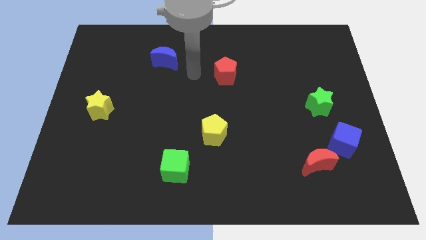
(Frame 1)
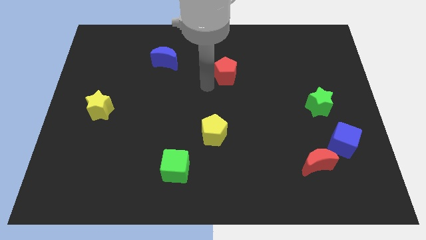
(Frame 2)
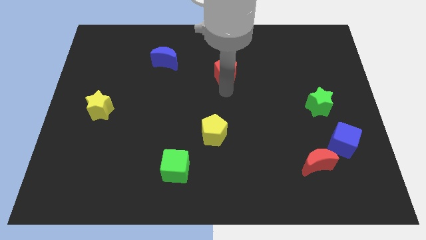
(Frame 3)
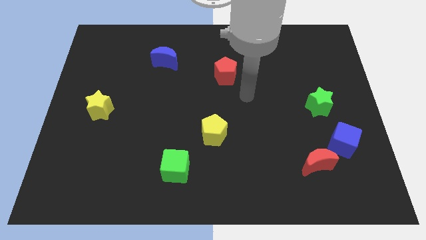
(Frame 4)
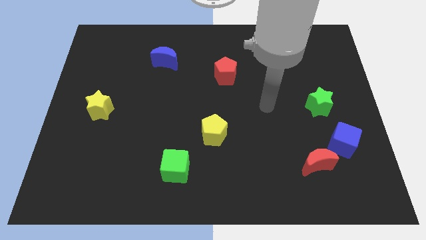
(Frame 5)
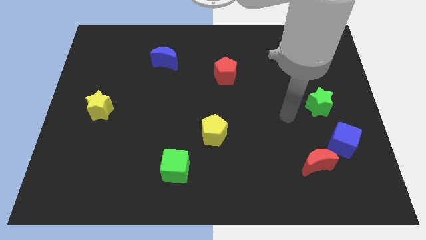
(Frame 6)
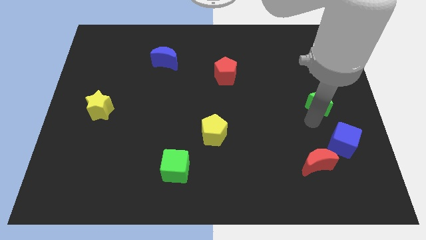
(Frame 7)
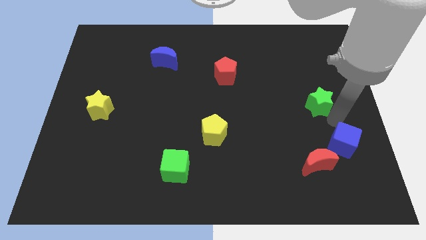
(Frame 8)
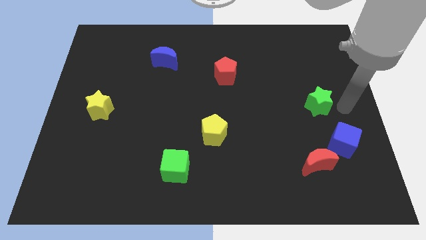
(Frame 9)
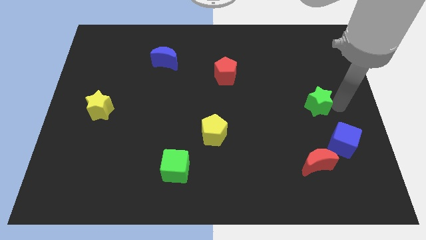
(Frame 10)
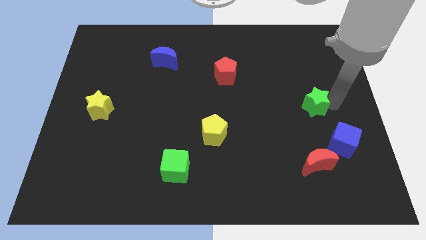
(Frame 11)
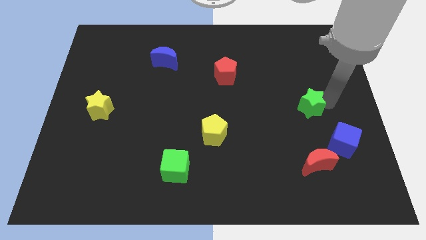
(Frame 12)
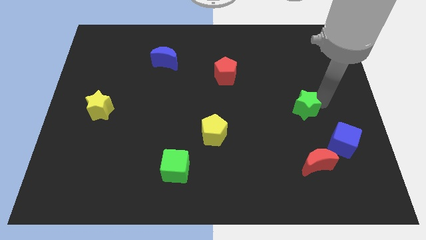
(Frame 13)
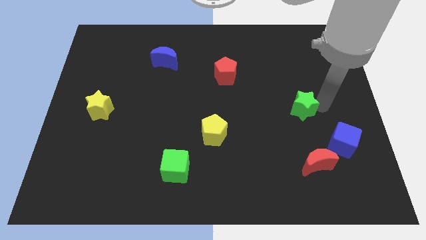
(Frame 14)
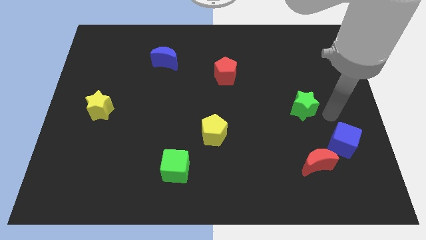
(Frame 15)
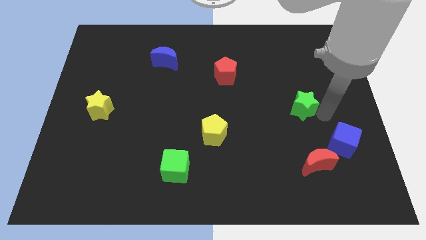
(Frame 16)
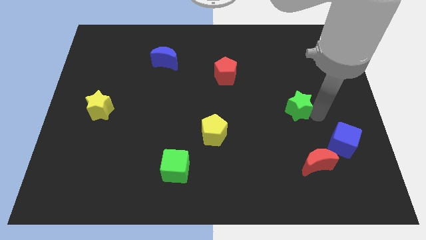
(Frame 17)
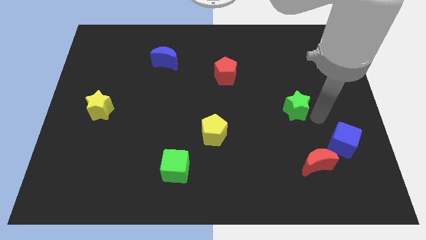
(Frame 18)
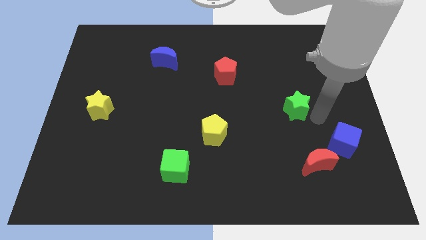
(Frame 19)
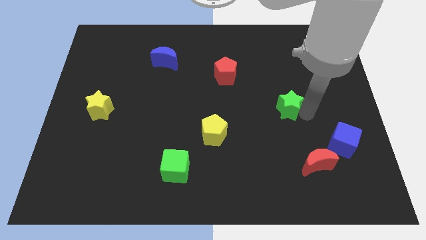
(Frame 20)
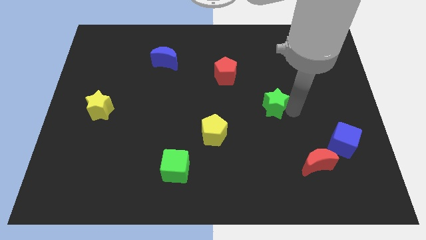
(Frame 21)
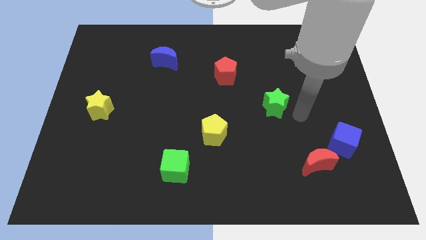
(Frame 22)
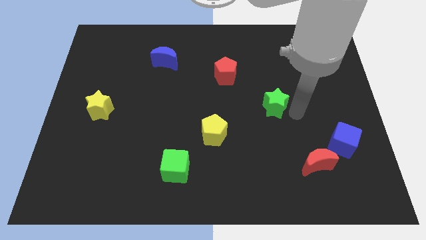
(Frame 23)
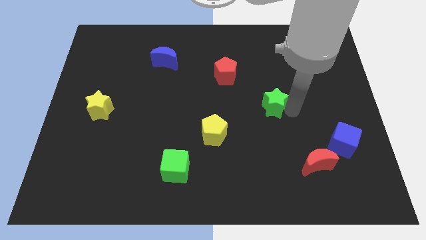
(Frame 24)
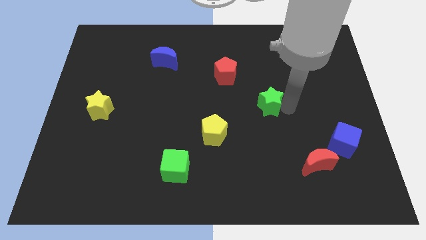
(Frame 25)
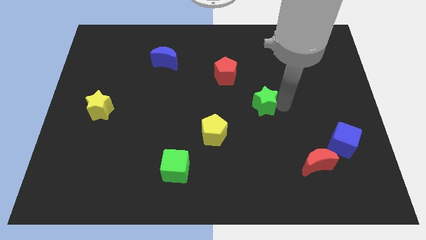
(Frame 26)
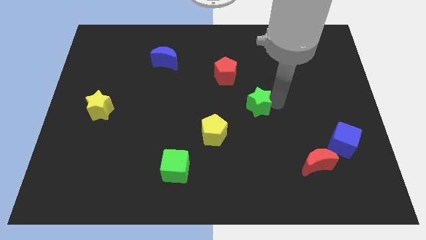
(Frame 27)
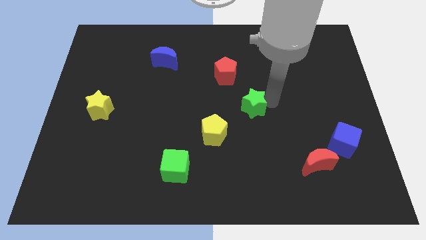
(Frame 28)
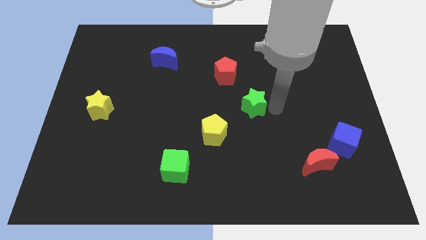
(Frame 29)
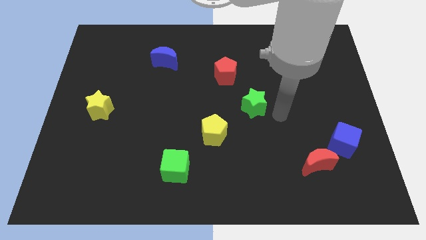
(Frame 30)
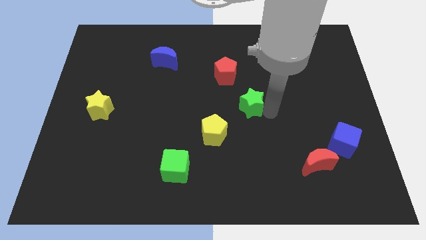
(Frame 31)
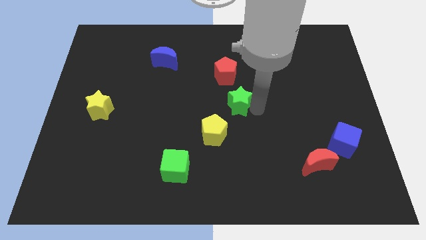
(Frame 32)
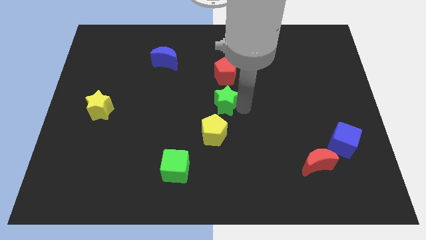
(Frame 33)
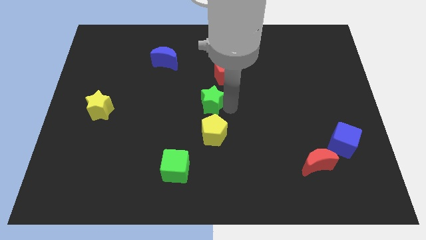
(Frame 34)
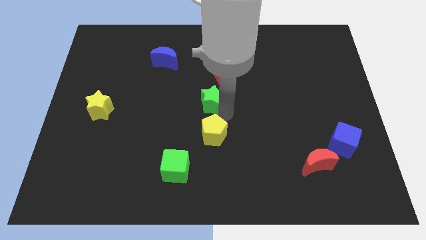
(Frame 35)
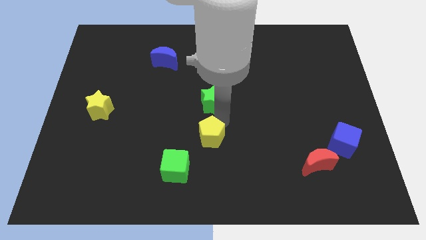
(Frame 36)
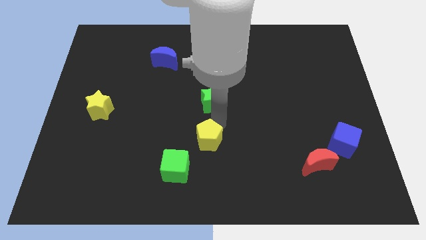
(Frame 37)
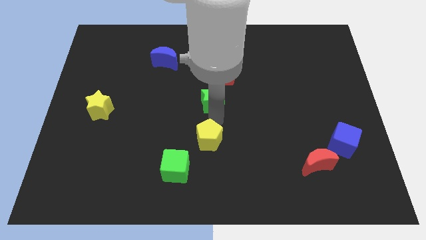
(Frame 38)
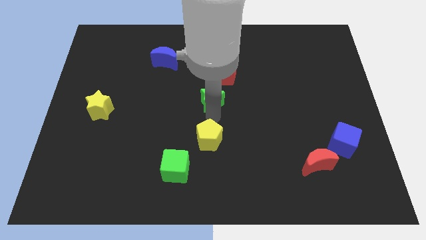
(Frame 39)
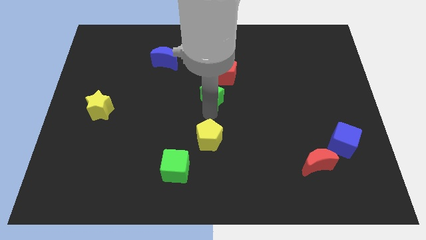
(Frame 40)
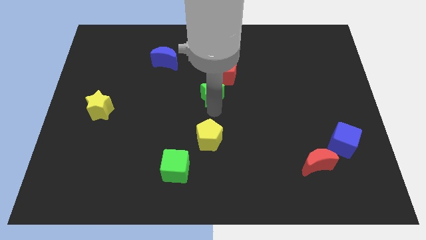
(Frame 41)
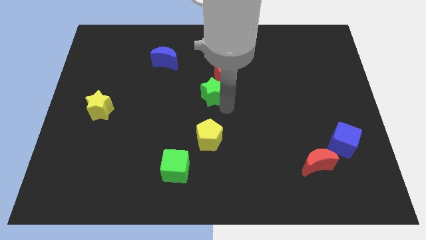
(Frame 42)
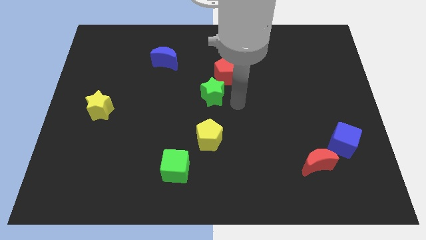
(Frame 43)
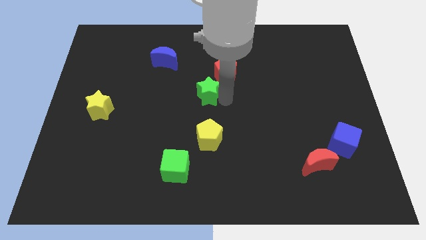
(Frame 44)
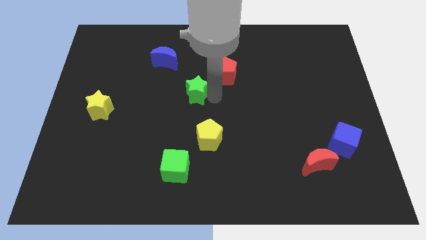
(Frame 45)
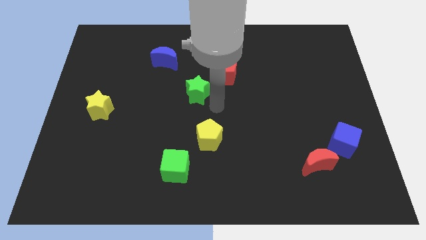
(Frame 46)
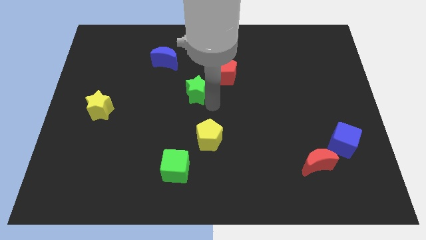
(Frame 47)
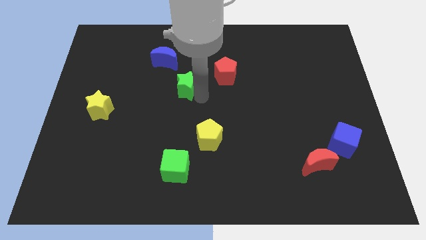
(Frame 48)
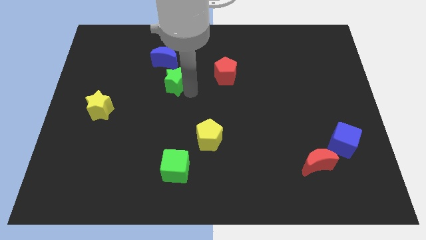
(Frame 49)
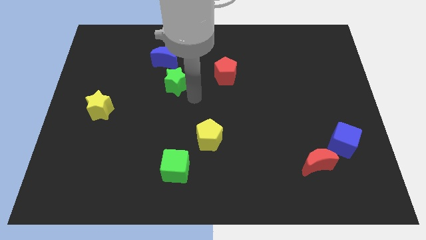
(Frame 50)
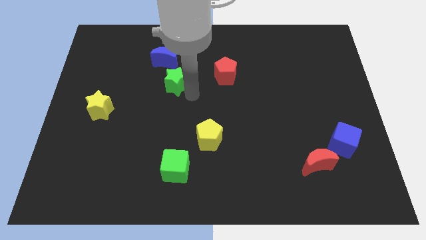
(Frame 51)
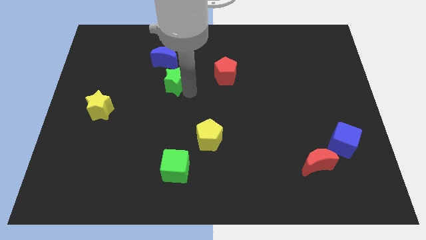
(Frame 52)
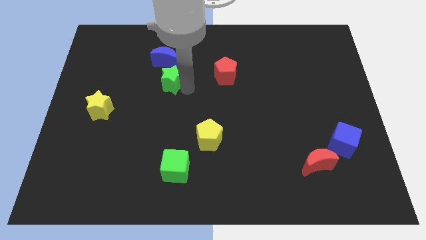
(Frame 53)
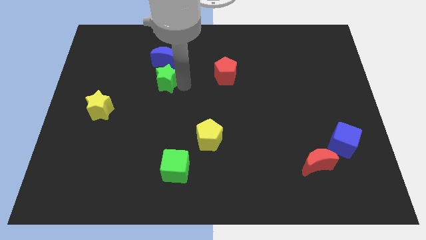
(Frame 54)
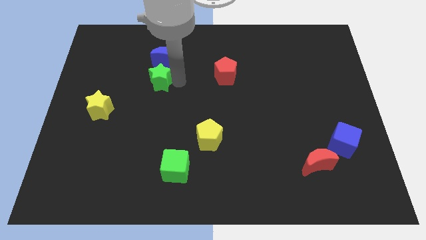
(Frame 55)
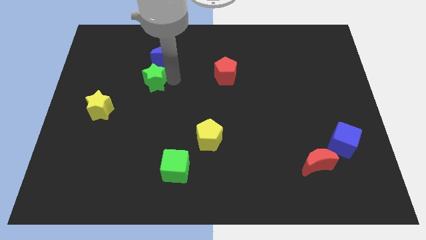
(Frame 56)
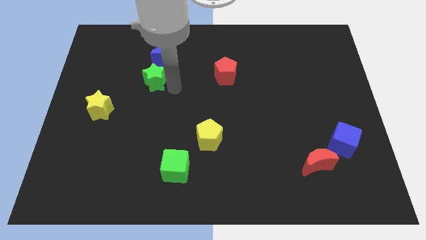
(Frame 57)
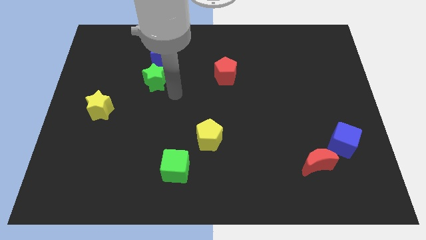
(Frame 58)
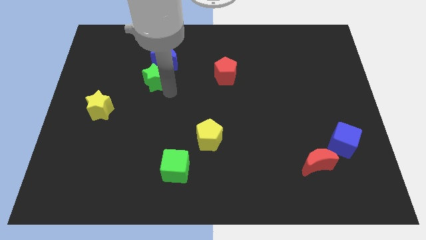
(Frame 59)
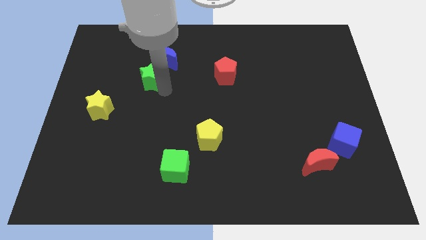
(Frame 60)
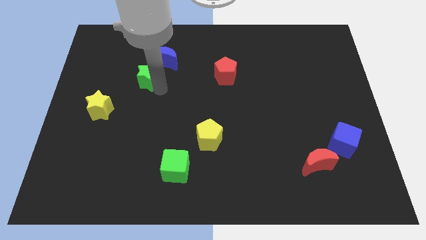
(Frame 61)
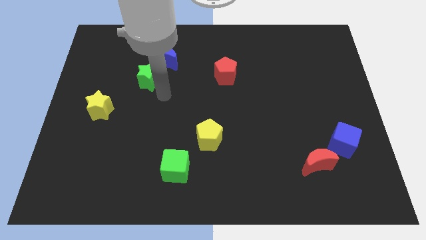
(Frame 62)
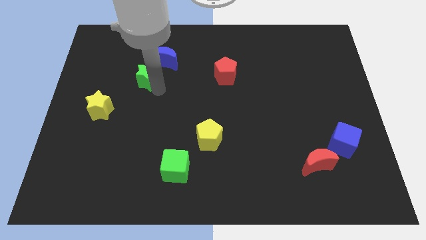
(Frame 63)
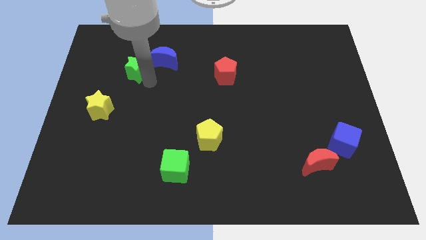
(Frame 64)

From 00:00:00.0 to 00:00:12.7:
push the green star left of the blue moon

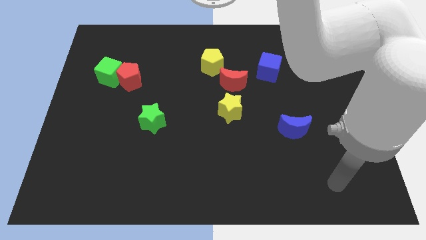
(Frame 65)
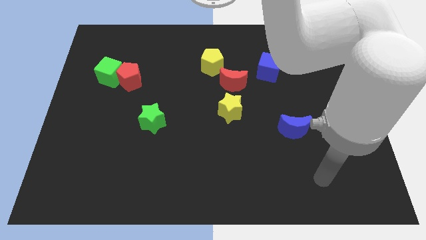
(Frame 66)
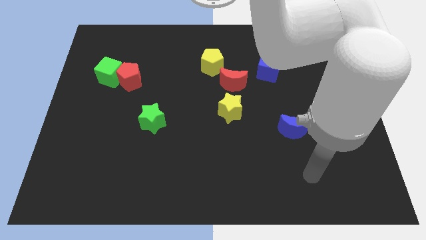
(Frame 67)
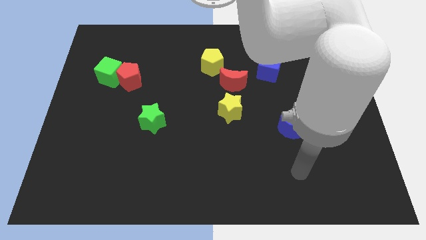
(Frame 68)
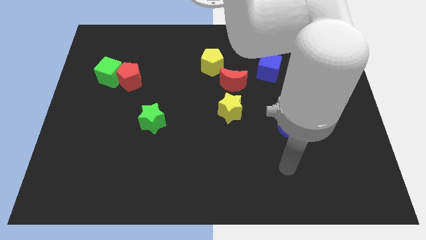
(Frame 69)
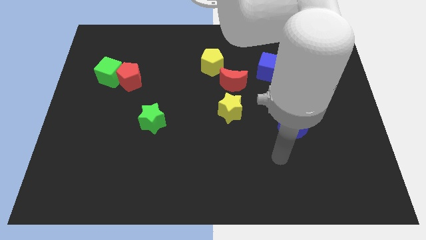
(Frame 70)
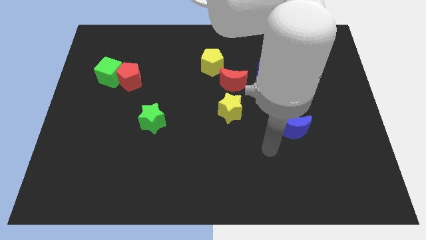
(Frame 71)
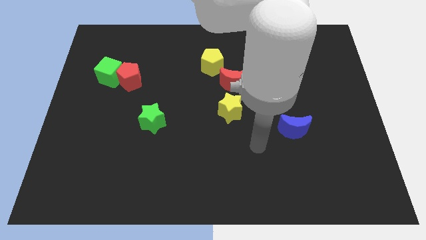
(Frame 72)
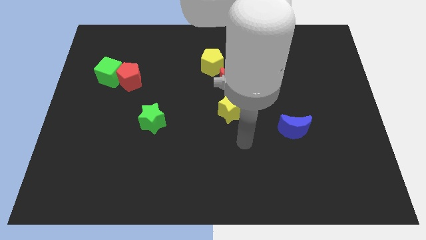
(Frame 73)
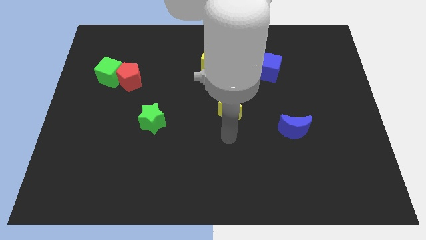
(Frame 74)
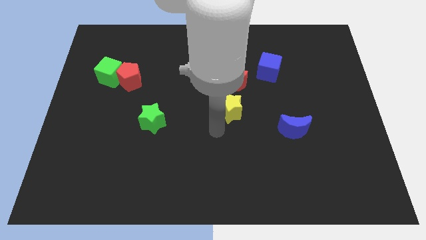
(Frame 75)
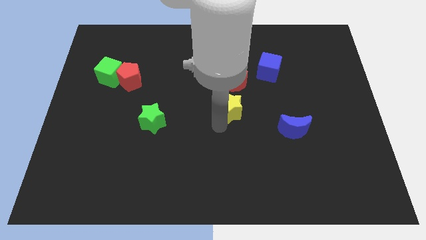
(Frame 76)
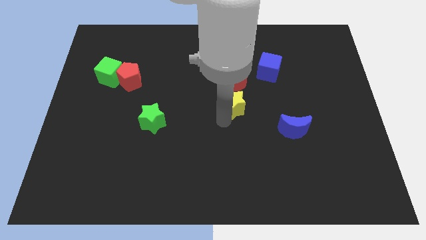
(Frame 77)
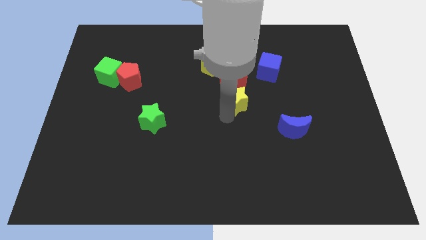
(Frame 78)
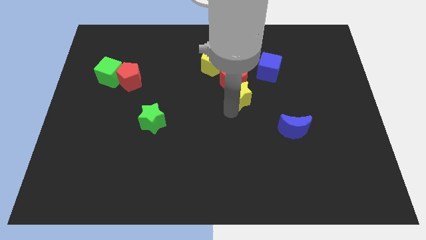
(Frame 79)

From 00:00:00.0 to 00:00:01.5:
slide the yellow star to the bottom left of the blue cube
